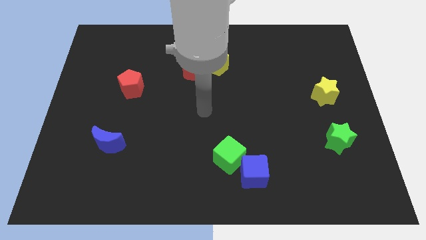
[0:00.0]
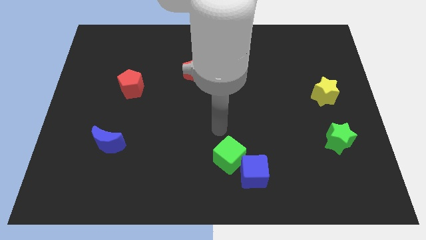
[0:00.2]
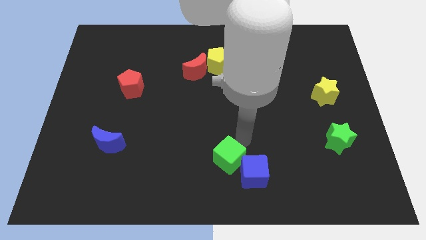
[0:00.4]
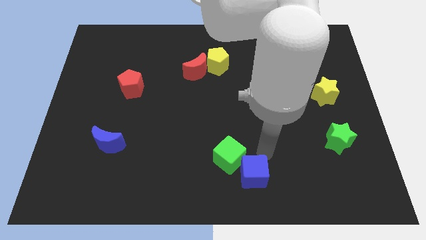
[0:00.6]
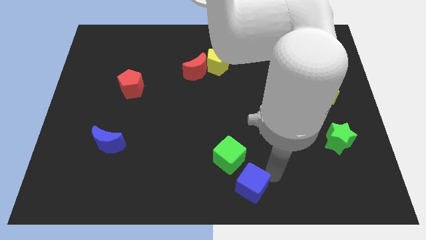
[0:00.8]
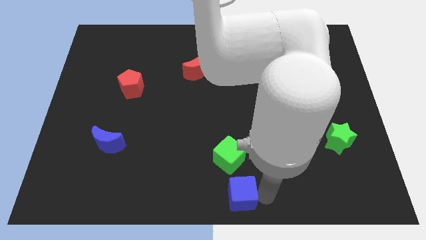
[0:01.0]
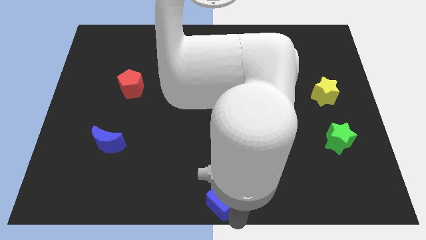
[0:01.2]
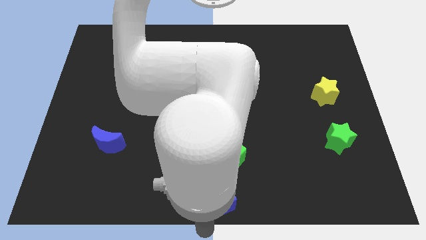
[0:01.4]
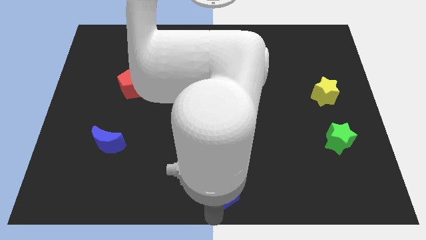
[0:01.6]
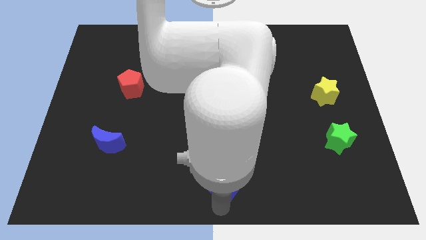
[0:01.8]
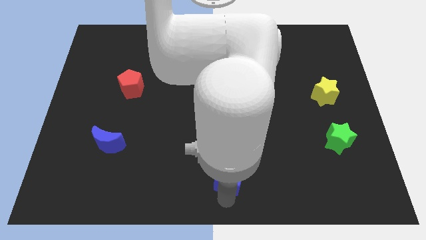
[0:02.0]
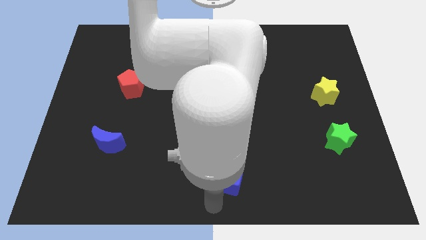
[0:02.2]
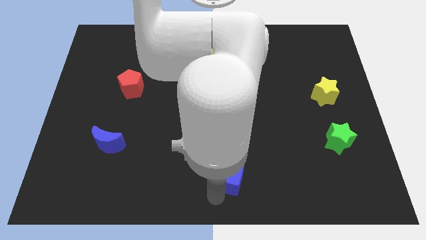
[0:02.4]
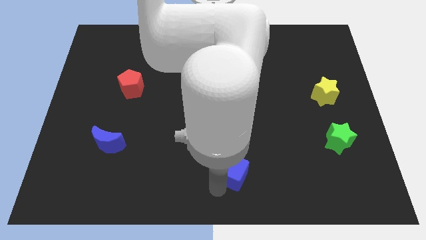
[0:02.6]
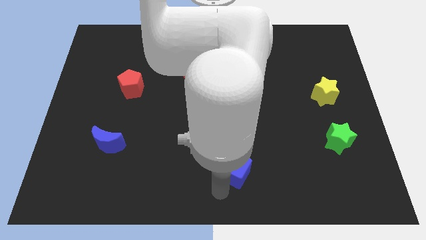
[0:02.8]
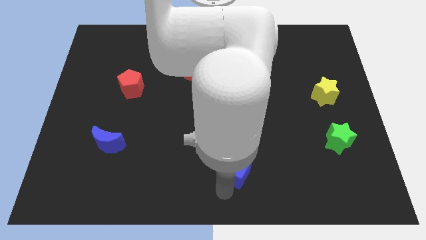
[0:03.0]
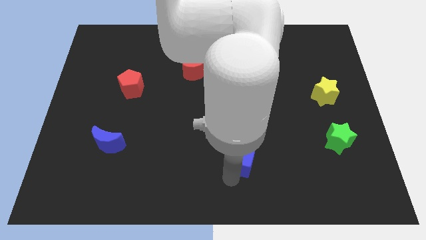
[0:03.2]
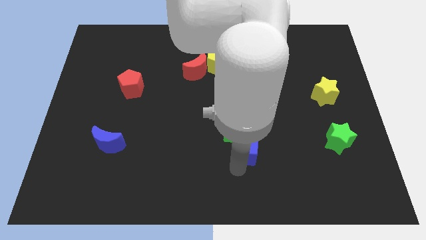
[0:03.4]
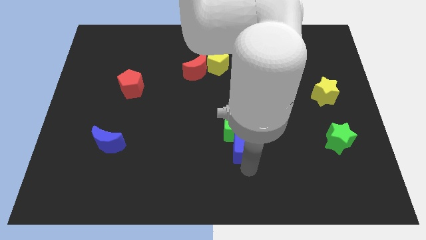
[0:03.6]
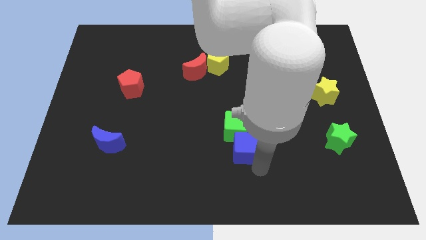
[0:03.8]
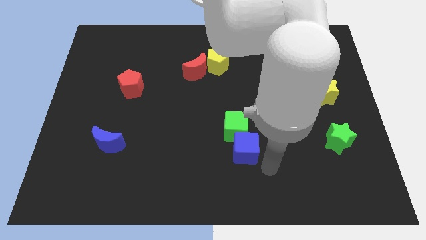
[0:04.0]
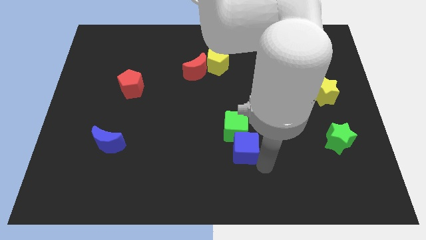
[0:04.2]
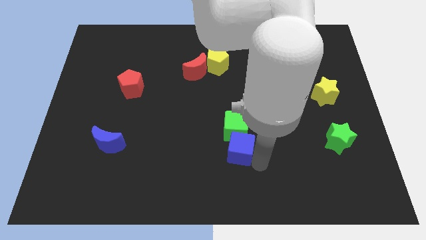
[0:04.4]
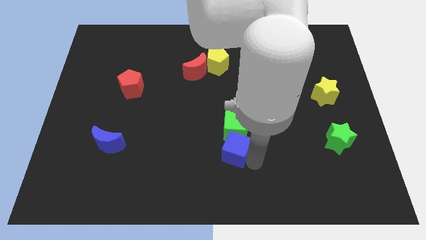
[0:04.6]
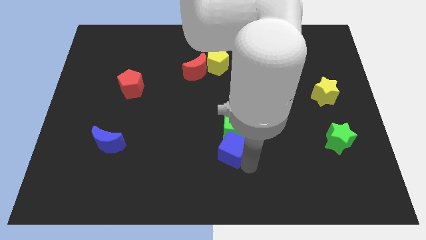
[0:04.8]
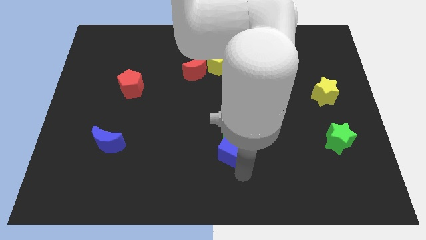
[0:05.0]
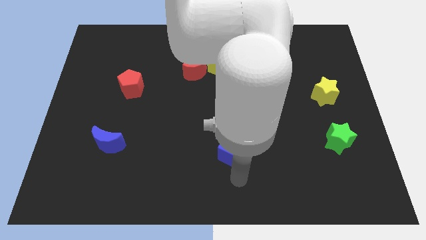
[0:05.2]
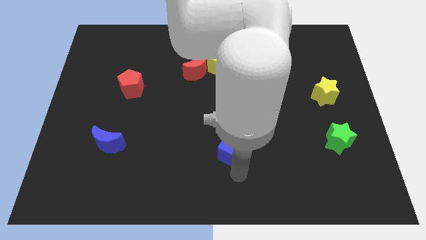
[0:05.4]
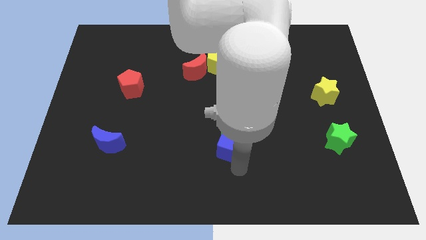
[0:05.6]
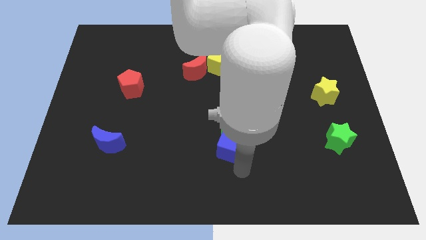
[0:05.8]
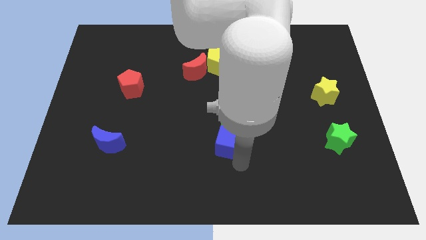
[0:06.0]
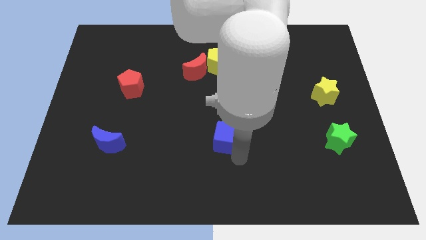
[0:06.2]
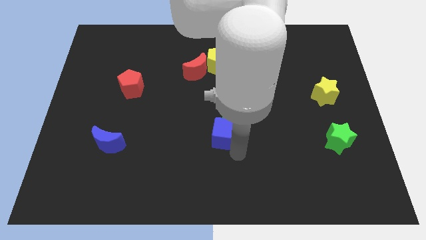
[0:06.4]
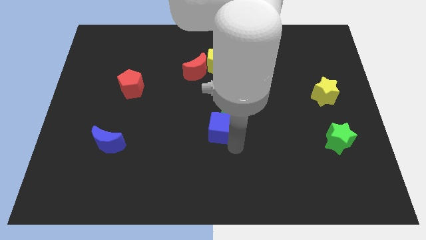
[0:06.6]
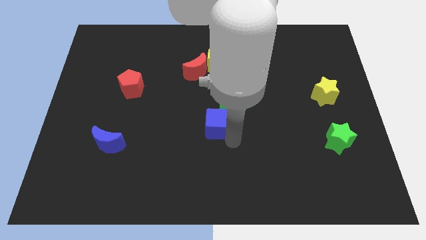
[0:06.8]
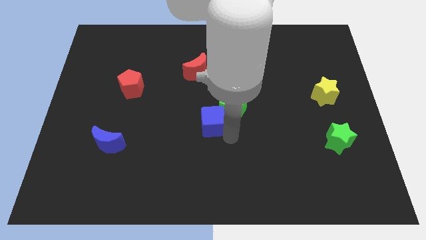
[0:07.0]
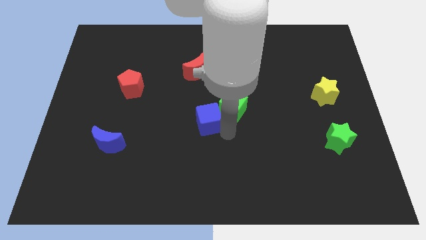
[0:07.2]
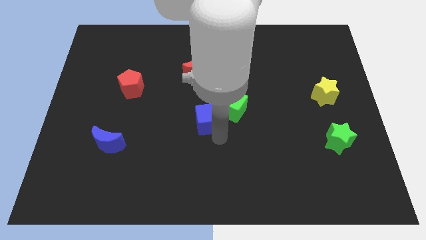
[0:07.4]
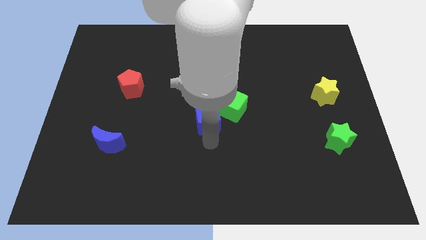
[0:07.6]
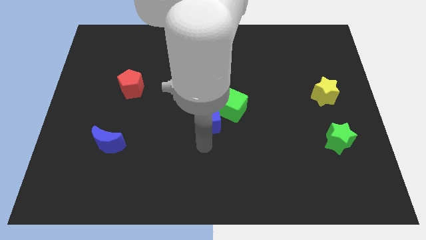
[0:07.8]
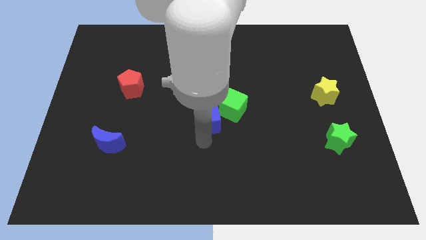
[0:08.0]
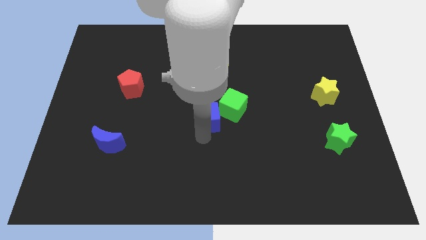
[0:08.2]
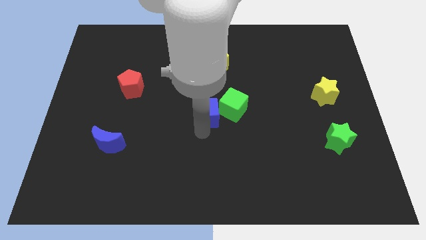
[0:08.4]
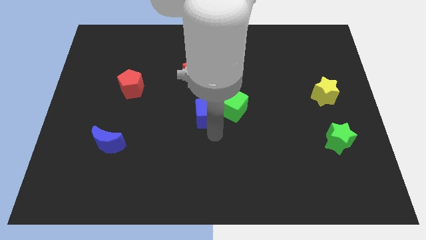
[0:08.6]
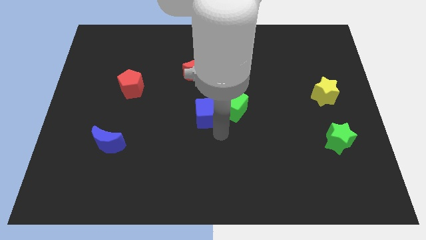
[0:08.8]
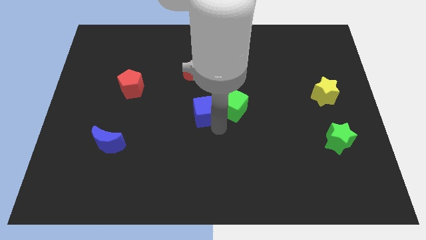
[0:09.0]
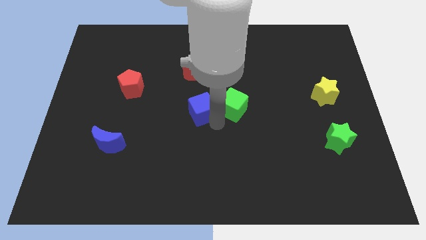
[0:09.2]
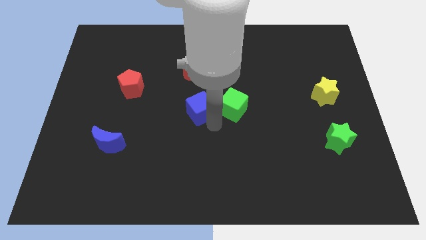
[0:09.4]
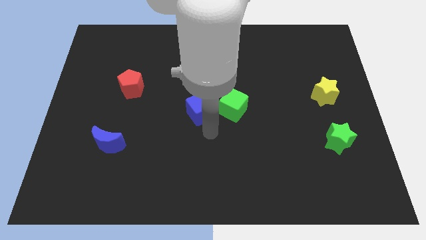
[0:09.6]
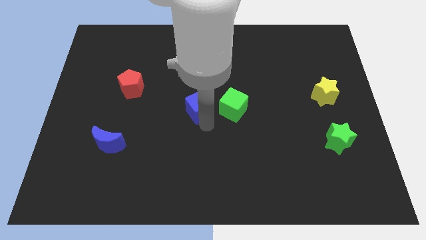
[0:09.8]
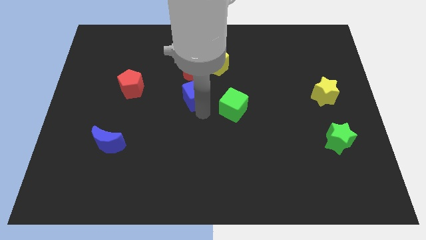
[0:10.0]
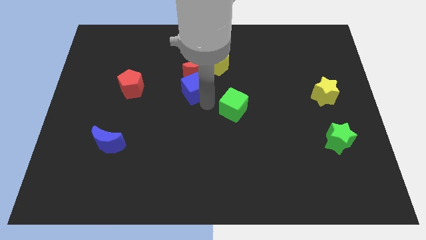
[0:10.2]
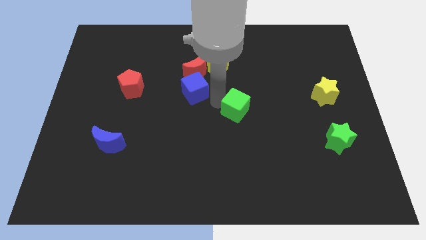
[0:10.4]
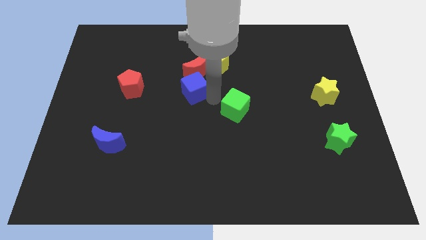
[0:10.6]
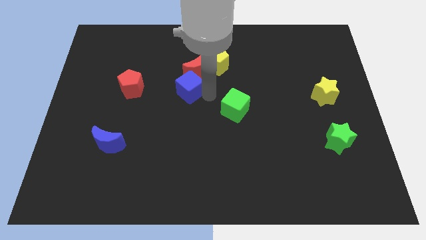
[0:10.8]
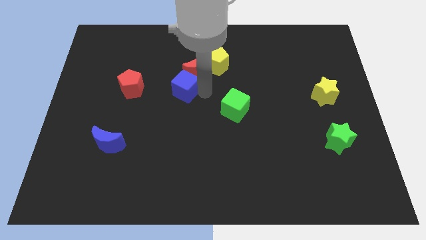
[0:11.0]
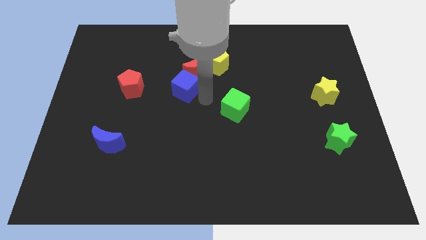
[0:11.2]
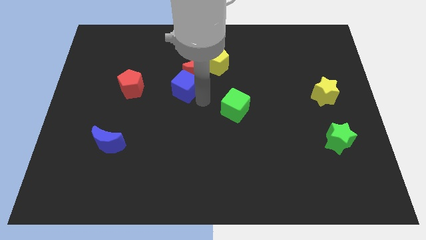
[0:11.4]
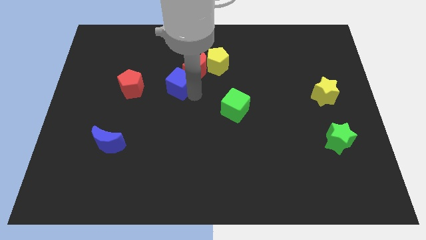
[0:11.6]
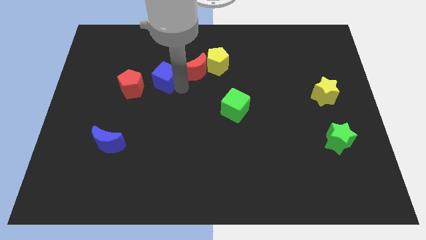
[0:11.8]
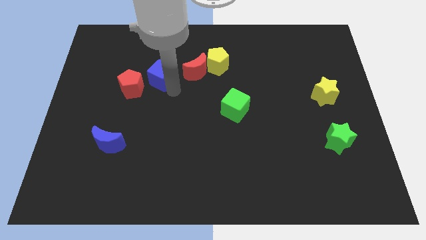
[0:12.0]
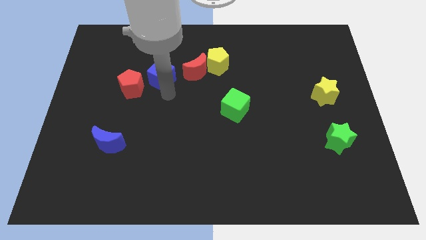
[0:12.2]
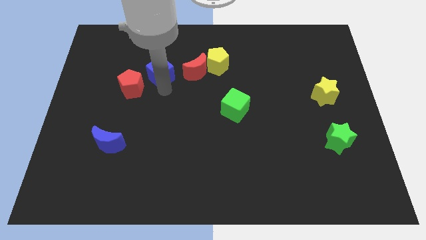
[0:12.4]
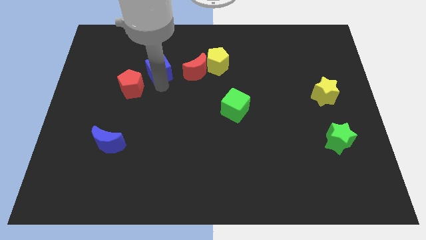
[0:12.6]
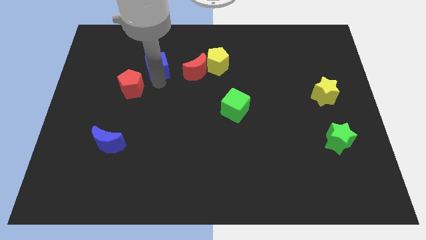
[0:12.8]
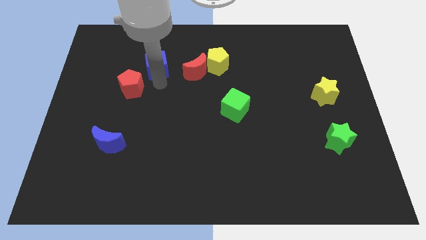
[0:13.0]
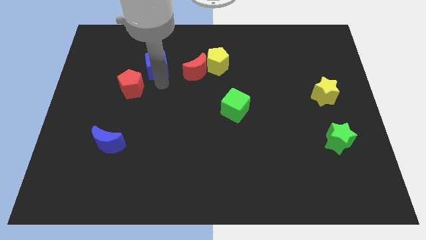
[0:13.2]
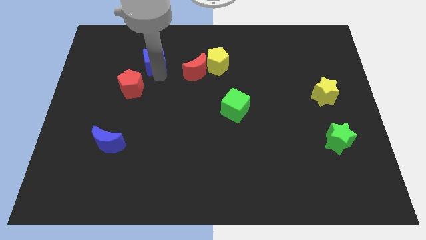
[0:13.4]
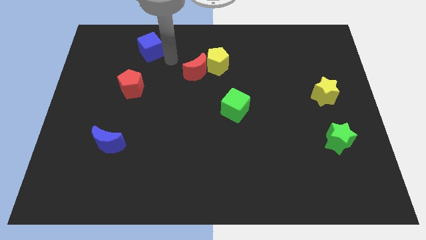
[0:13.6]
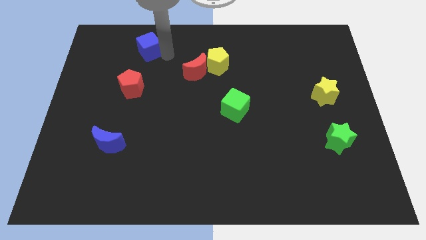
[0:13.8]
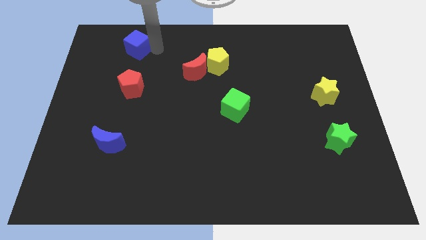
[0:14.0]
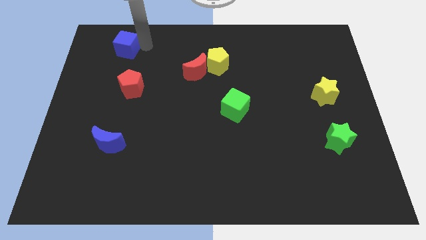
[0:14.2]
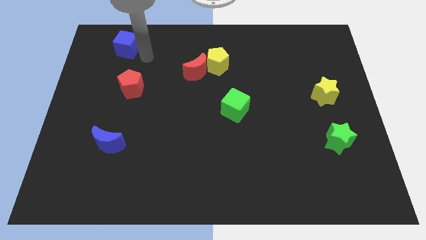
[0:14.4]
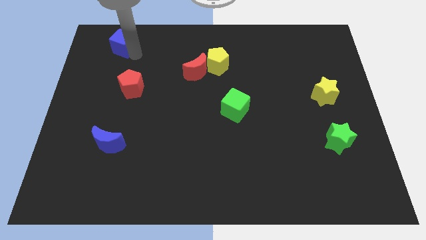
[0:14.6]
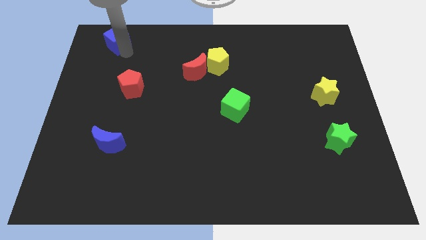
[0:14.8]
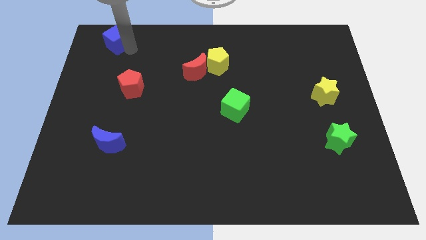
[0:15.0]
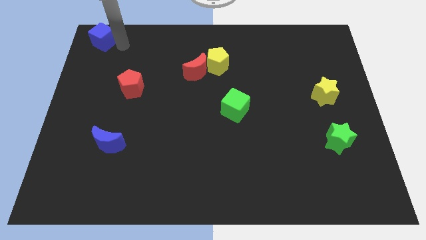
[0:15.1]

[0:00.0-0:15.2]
move the blue cube to the top left
